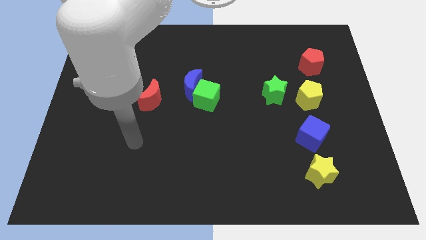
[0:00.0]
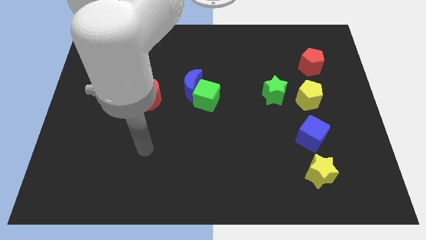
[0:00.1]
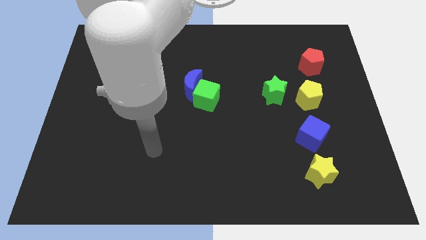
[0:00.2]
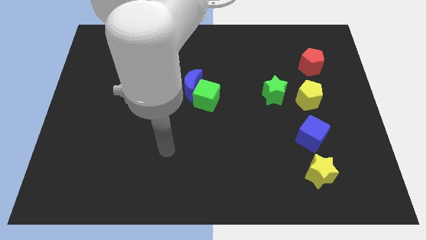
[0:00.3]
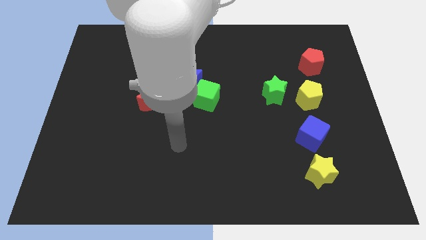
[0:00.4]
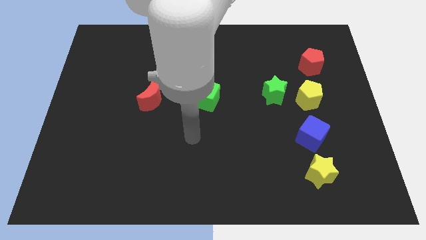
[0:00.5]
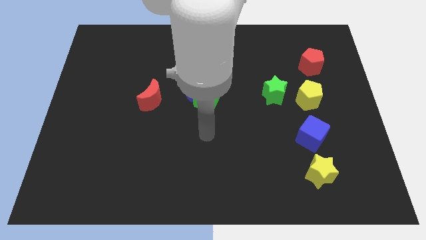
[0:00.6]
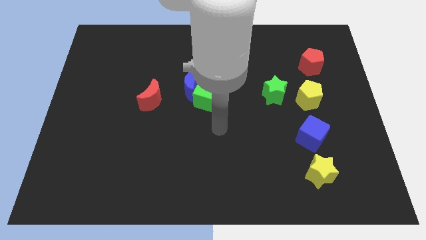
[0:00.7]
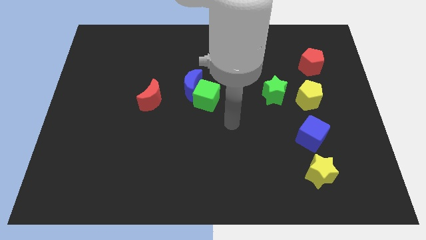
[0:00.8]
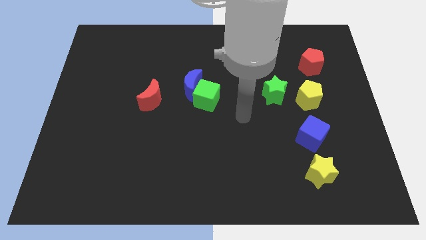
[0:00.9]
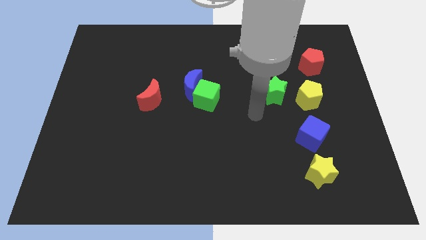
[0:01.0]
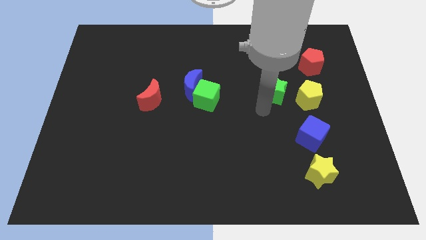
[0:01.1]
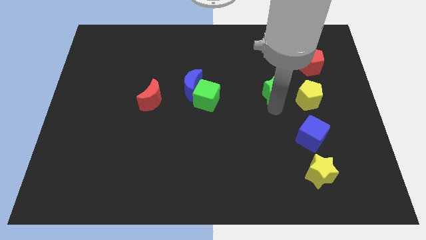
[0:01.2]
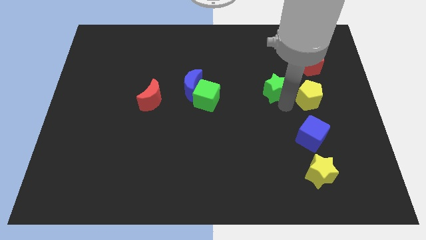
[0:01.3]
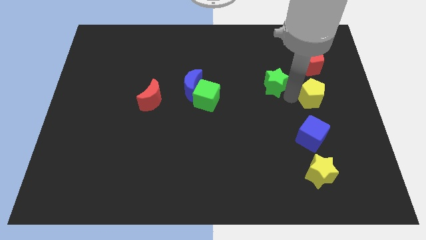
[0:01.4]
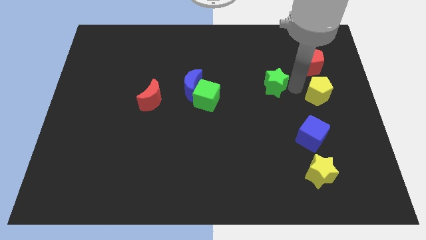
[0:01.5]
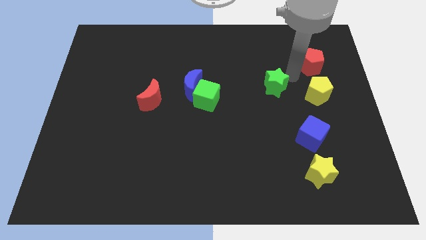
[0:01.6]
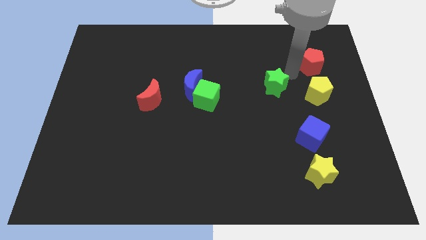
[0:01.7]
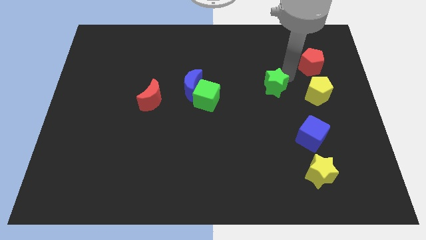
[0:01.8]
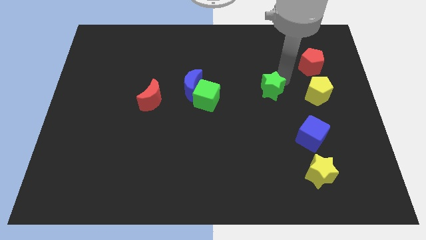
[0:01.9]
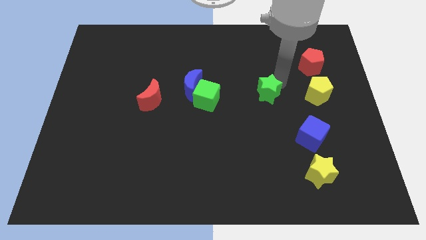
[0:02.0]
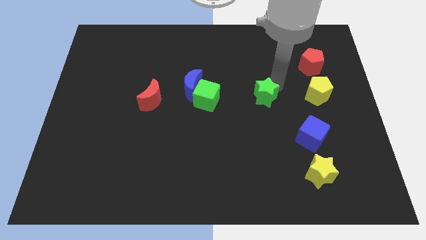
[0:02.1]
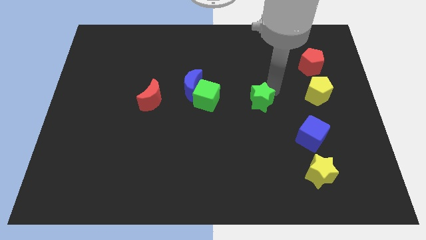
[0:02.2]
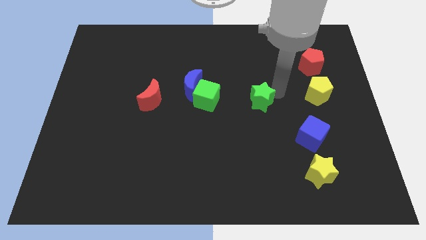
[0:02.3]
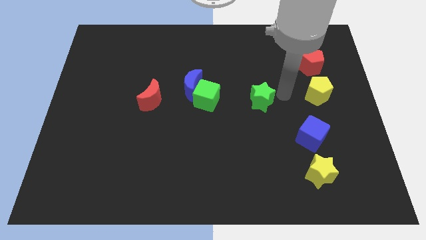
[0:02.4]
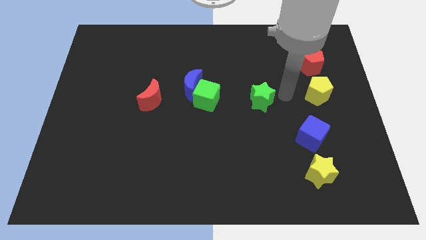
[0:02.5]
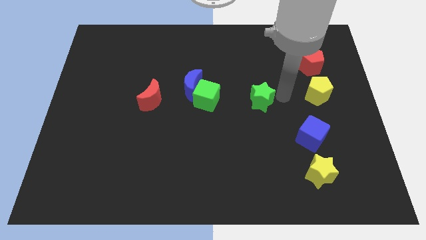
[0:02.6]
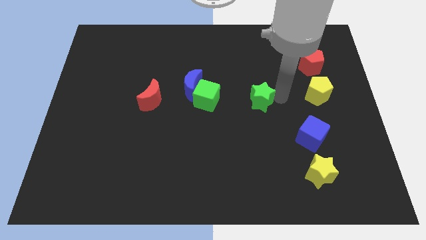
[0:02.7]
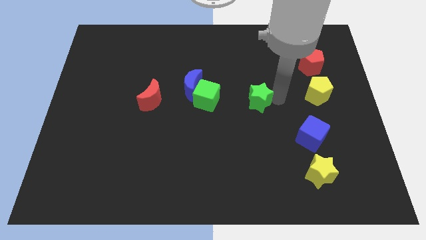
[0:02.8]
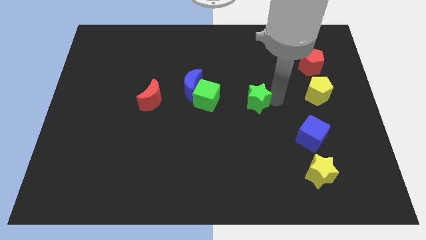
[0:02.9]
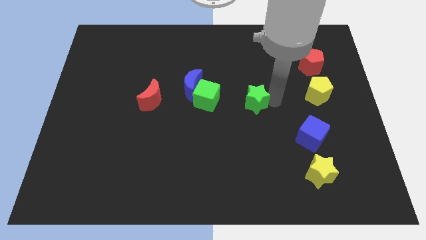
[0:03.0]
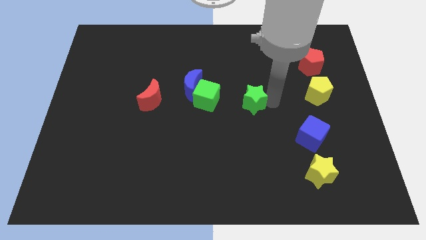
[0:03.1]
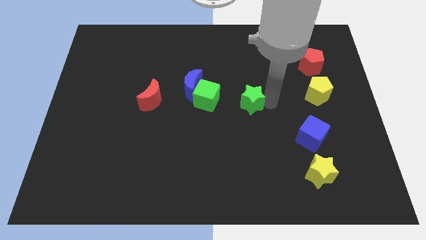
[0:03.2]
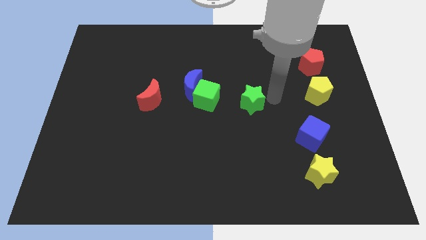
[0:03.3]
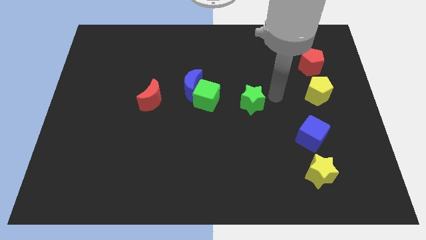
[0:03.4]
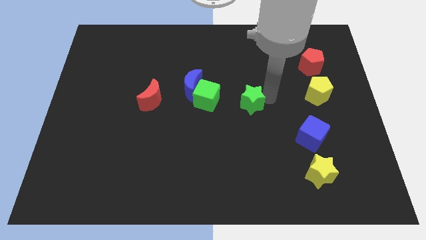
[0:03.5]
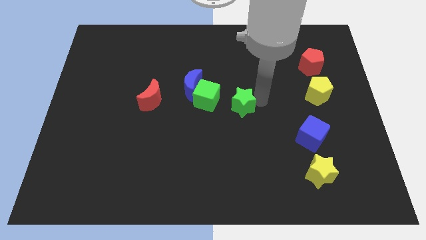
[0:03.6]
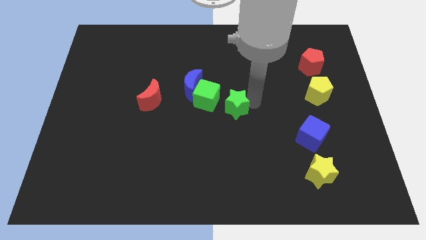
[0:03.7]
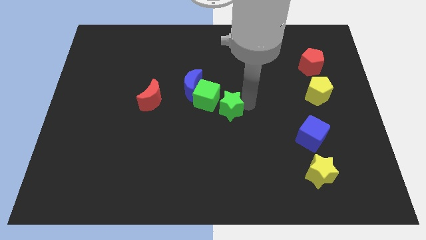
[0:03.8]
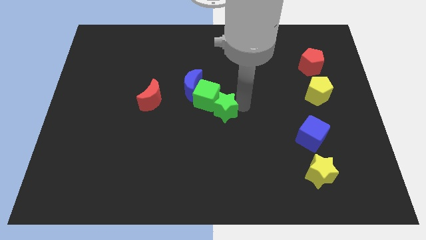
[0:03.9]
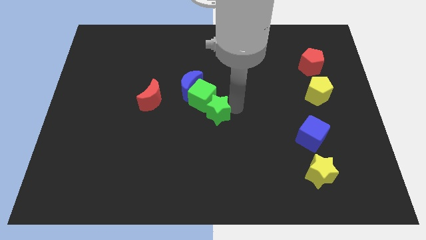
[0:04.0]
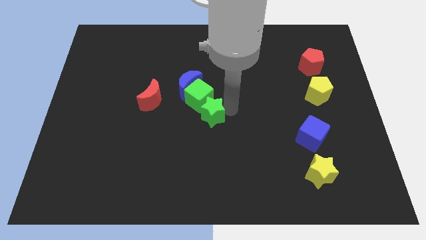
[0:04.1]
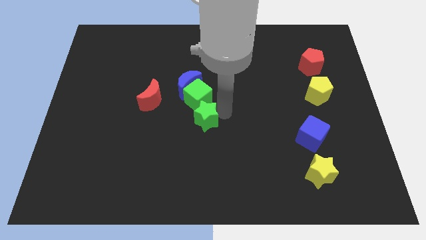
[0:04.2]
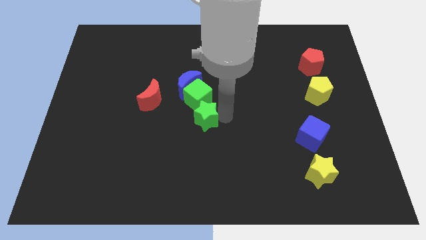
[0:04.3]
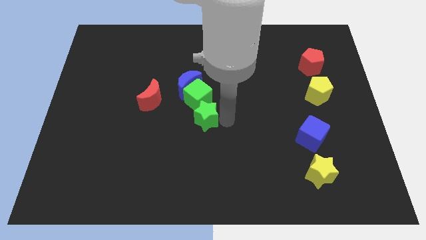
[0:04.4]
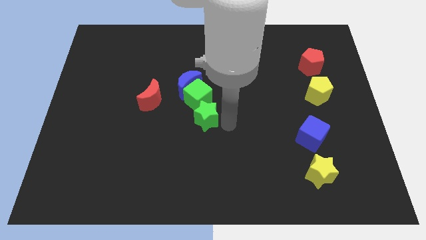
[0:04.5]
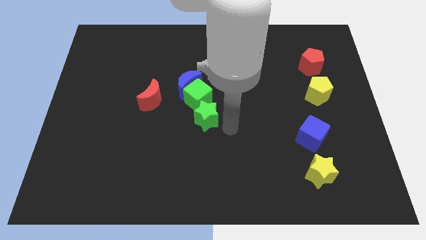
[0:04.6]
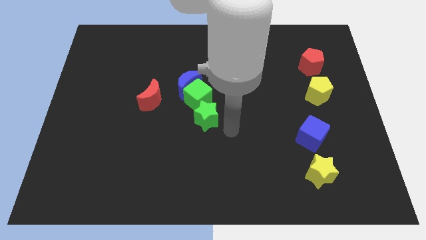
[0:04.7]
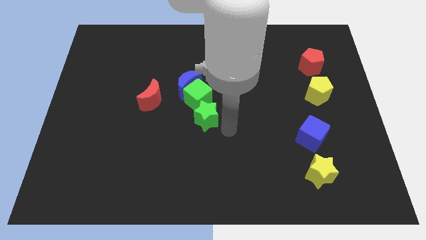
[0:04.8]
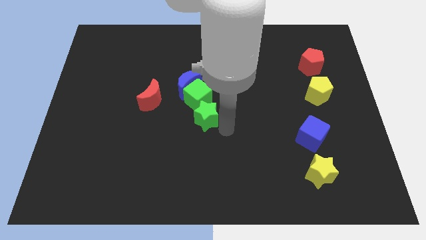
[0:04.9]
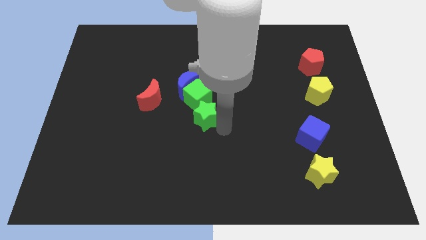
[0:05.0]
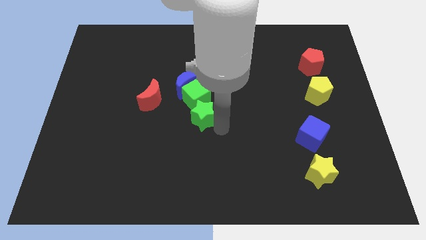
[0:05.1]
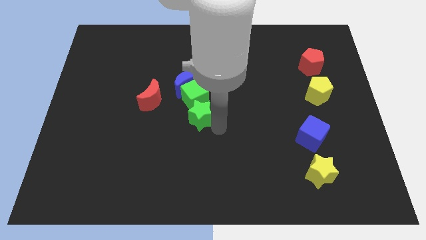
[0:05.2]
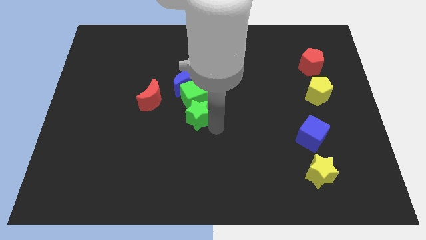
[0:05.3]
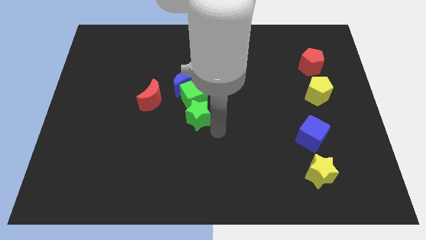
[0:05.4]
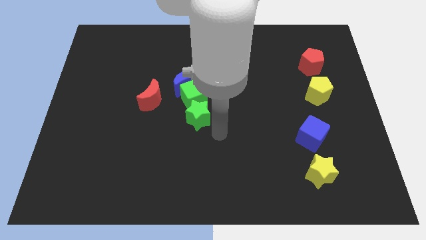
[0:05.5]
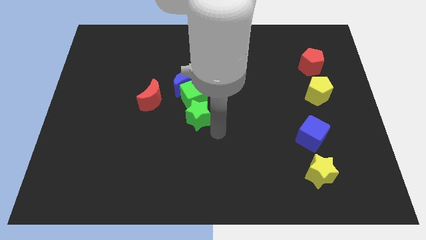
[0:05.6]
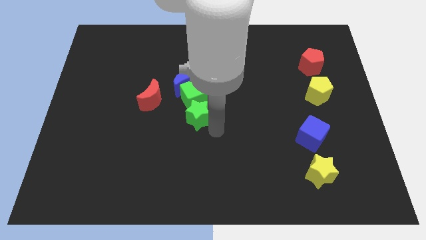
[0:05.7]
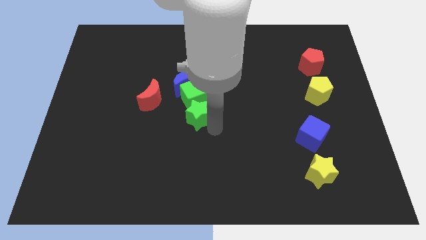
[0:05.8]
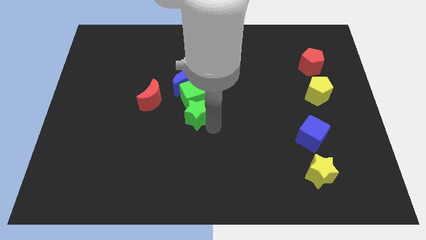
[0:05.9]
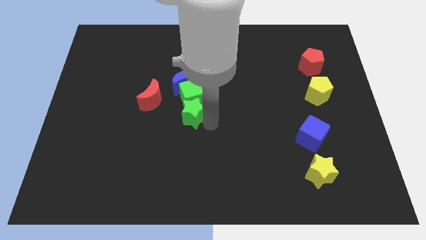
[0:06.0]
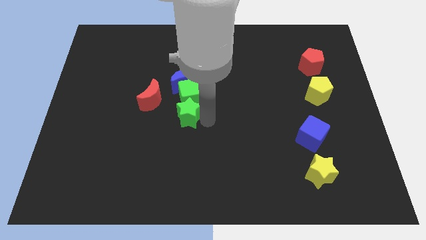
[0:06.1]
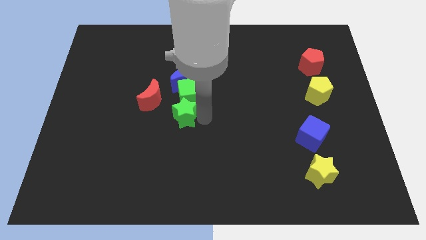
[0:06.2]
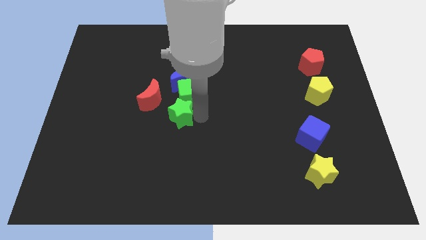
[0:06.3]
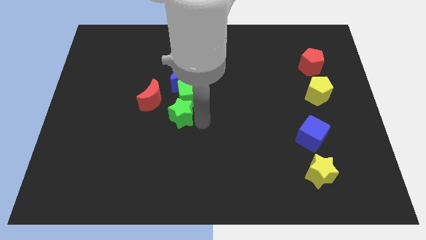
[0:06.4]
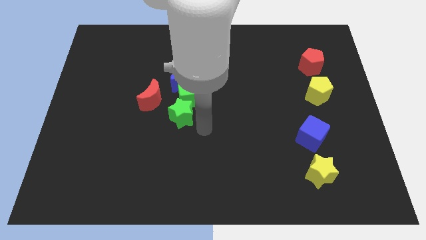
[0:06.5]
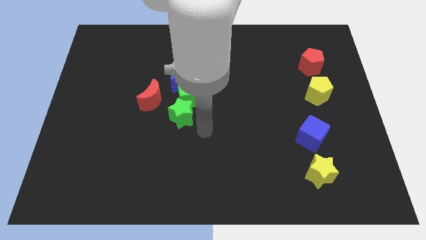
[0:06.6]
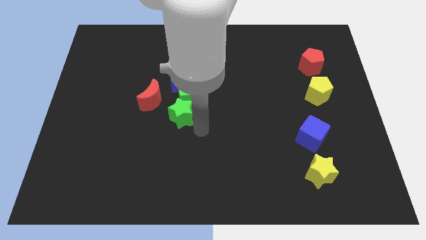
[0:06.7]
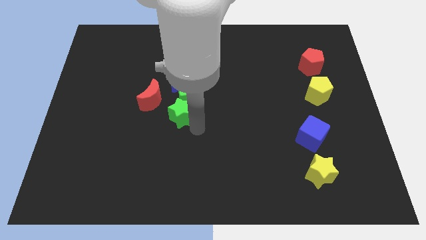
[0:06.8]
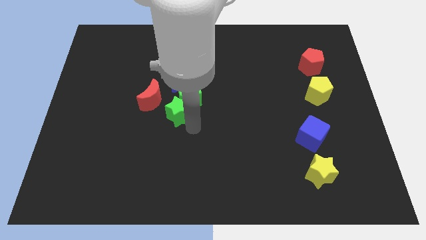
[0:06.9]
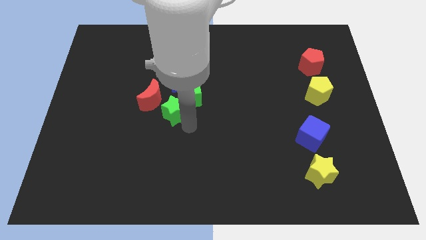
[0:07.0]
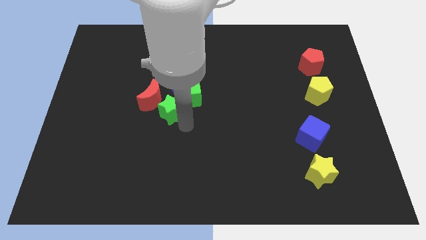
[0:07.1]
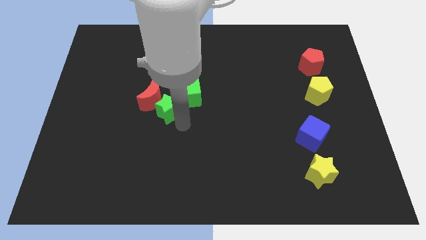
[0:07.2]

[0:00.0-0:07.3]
slide the green star to the red moon
